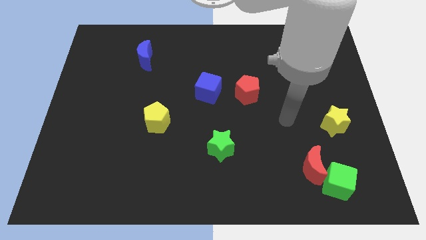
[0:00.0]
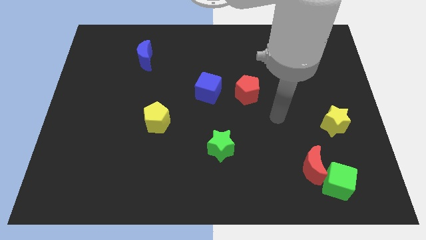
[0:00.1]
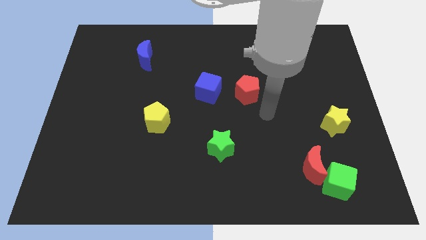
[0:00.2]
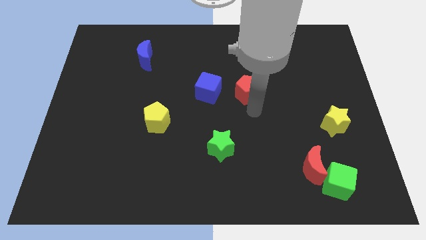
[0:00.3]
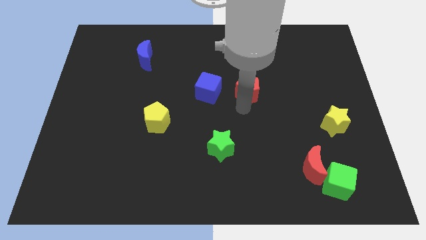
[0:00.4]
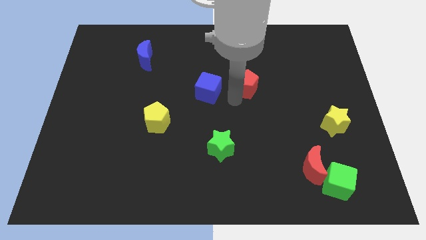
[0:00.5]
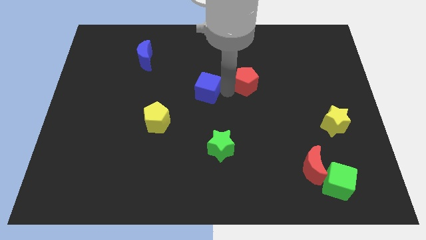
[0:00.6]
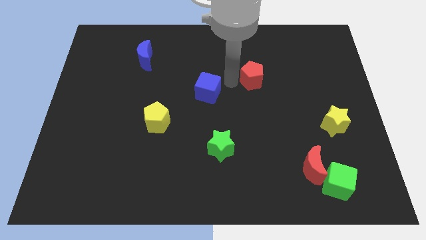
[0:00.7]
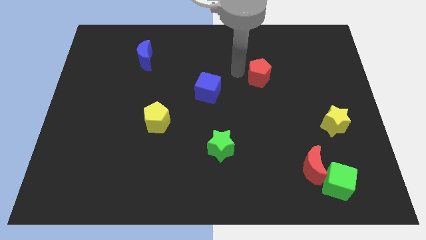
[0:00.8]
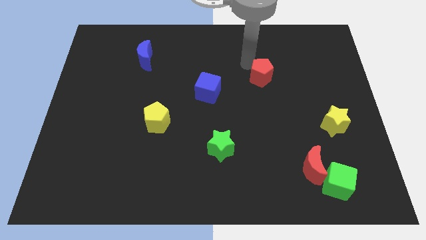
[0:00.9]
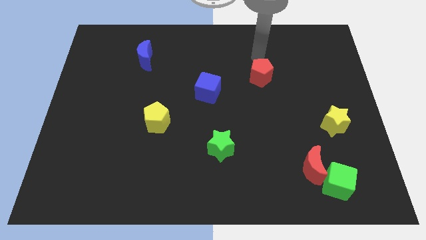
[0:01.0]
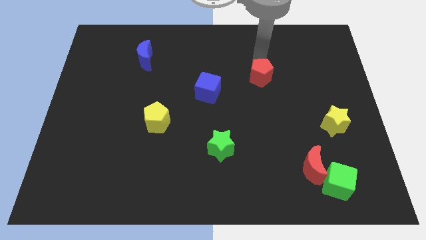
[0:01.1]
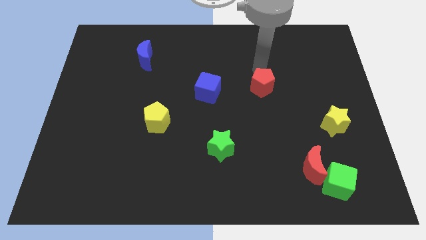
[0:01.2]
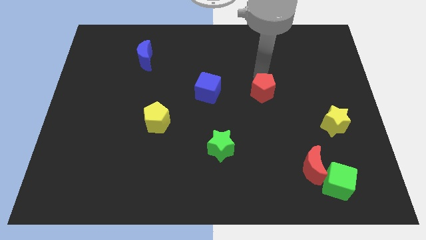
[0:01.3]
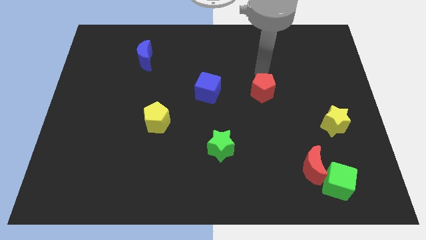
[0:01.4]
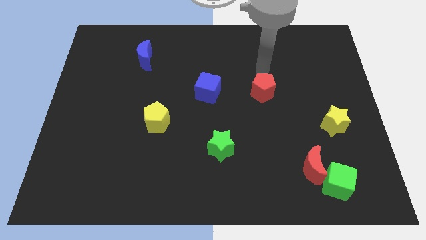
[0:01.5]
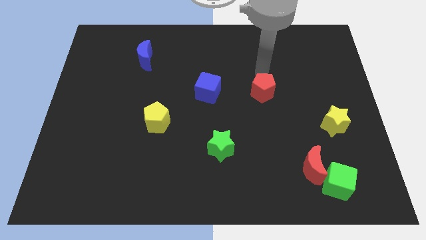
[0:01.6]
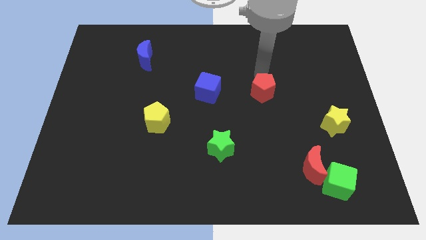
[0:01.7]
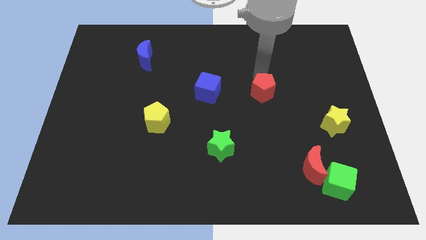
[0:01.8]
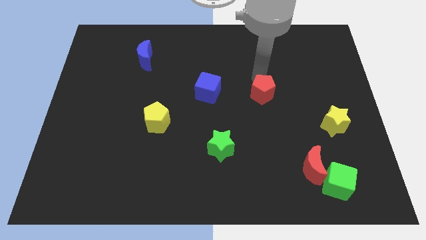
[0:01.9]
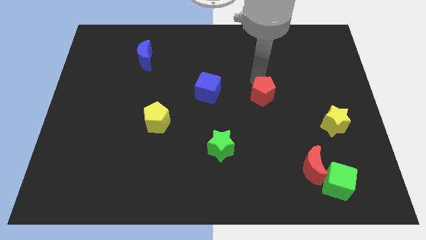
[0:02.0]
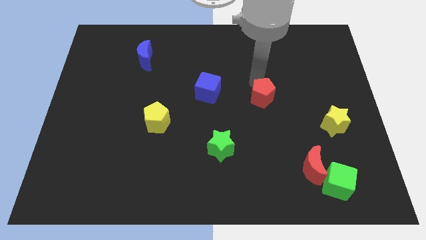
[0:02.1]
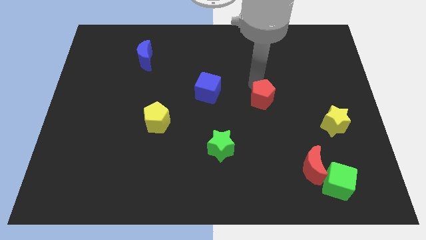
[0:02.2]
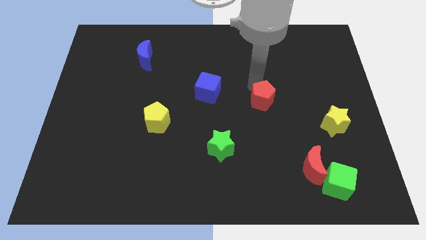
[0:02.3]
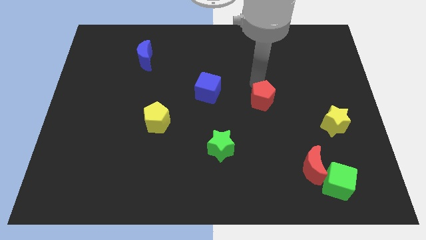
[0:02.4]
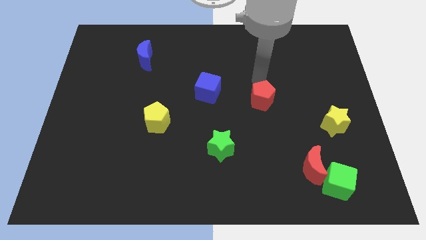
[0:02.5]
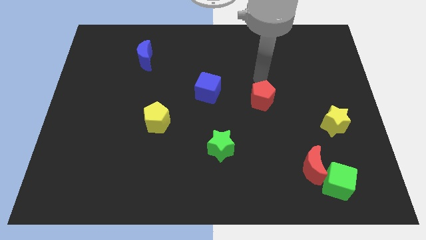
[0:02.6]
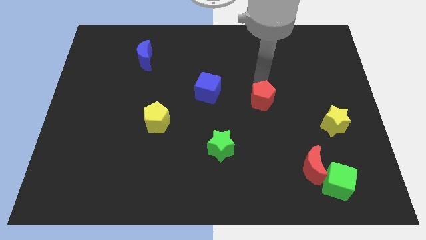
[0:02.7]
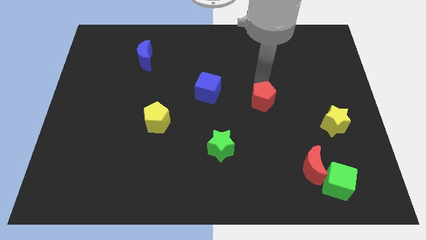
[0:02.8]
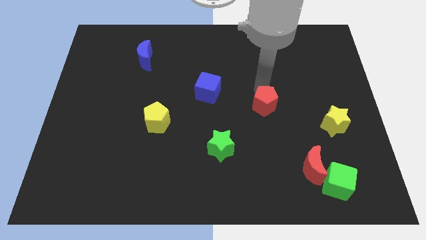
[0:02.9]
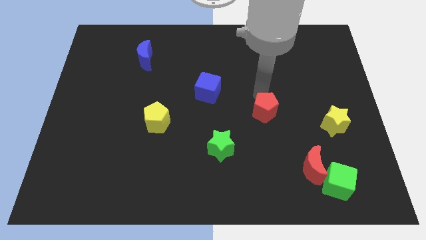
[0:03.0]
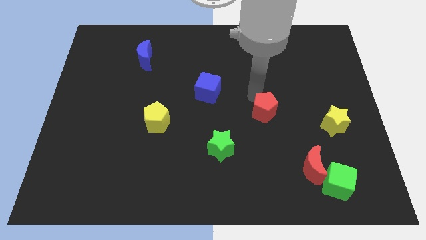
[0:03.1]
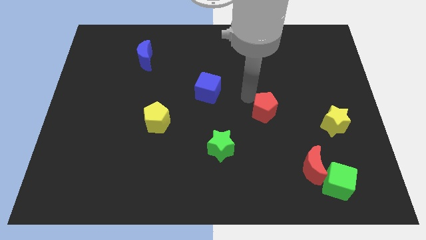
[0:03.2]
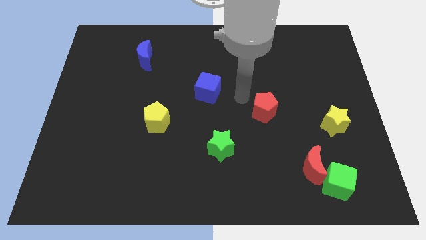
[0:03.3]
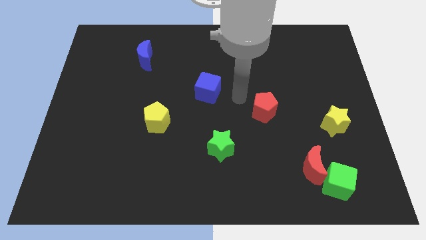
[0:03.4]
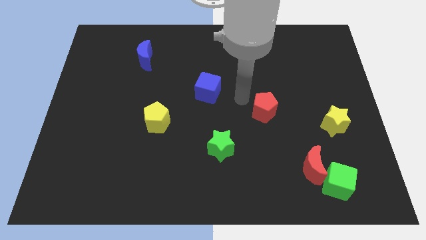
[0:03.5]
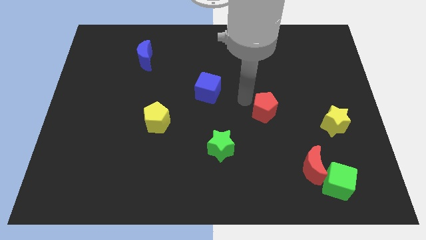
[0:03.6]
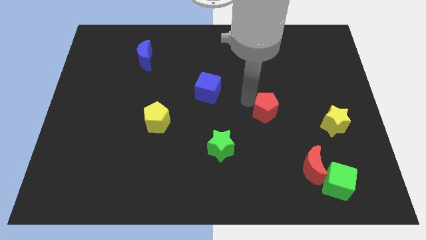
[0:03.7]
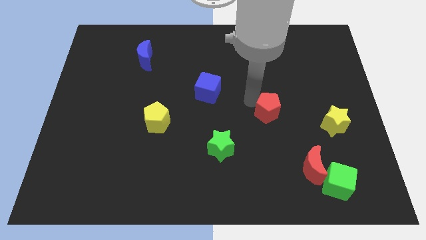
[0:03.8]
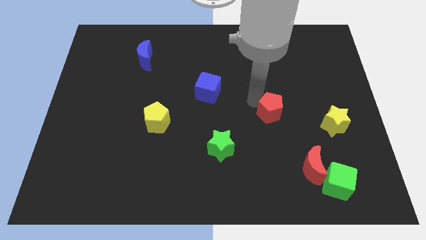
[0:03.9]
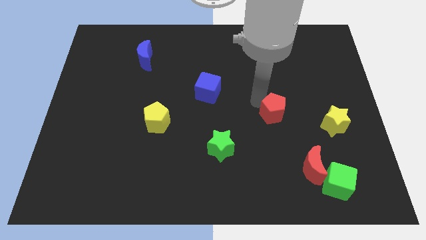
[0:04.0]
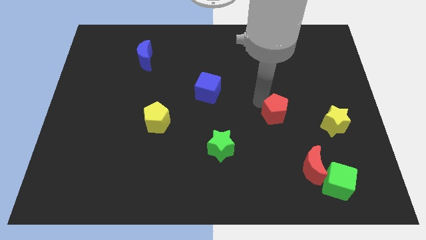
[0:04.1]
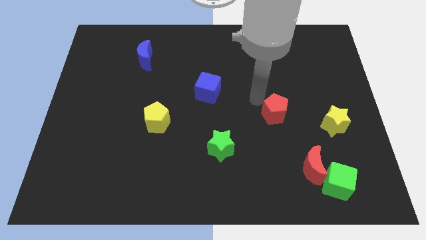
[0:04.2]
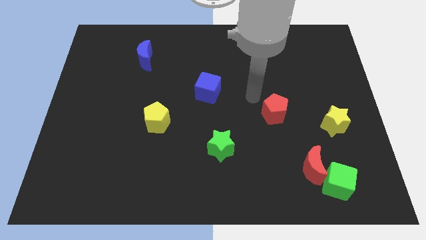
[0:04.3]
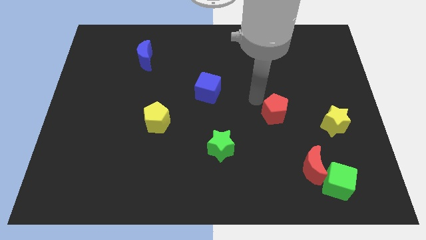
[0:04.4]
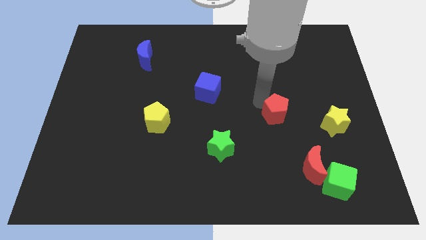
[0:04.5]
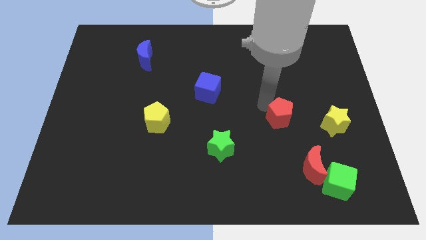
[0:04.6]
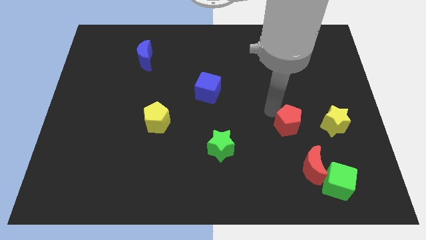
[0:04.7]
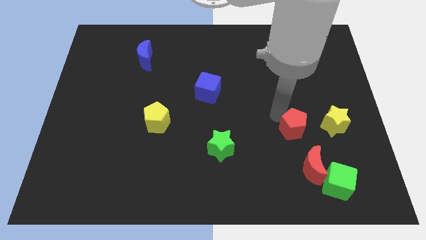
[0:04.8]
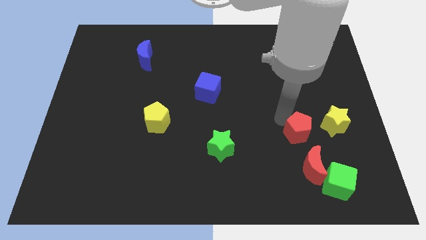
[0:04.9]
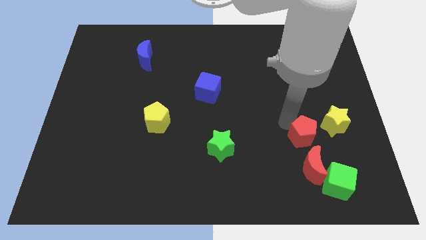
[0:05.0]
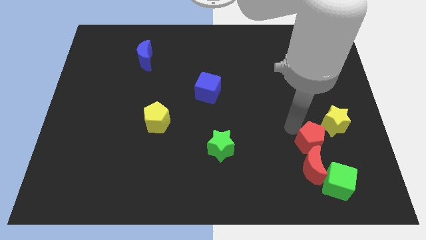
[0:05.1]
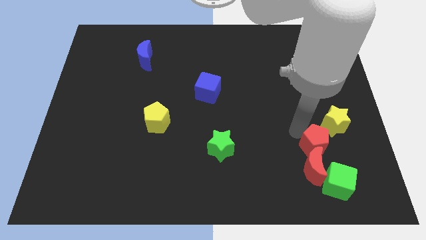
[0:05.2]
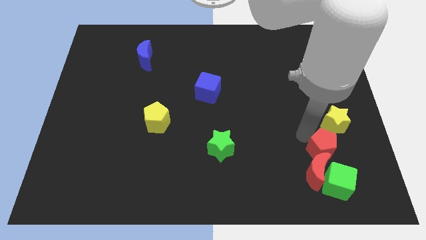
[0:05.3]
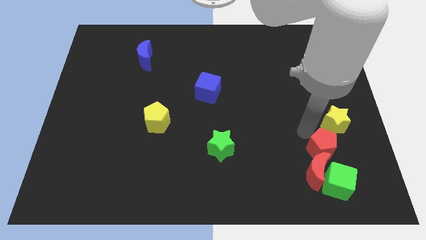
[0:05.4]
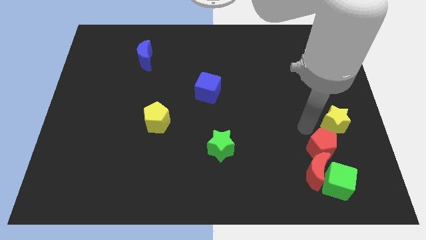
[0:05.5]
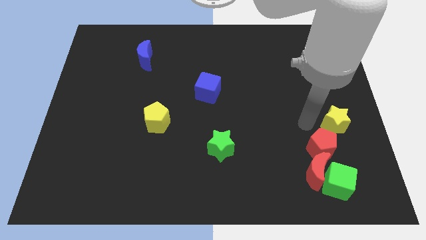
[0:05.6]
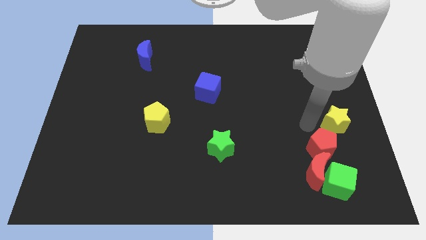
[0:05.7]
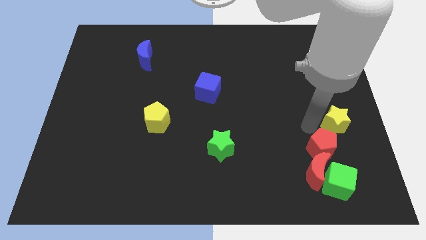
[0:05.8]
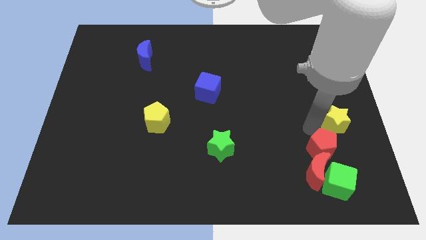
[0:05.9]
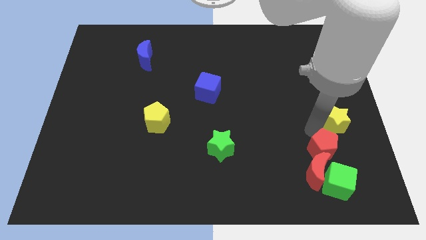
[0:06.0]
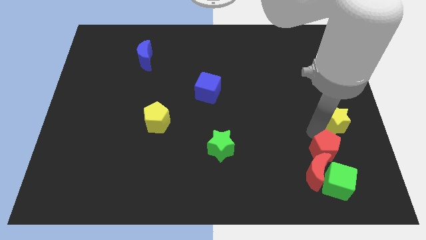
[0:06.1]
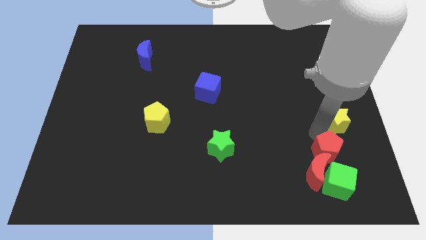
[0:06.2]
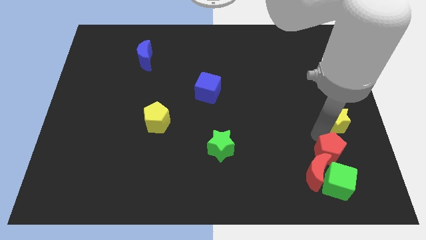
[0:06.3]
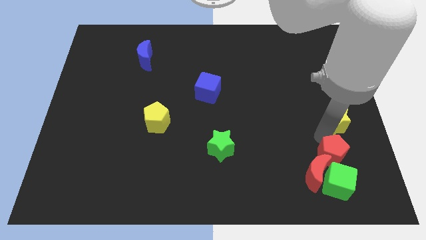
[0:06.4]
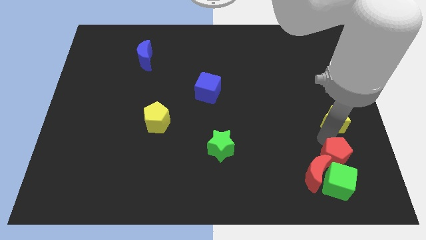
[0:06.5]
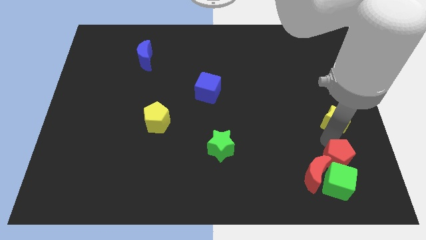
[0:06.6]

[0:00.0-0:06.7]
put the red pentagon close to the green cube

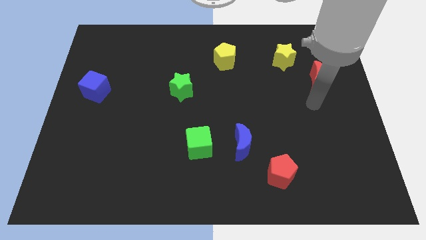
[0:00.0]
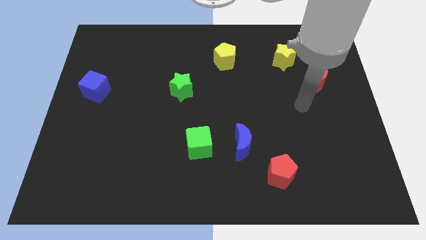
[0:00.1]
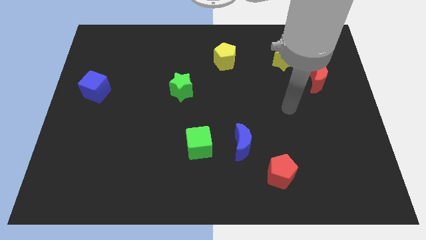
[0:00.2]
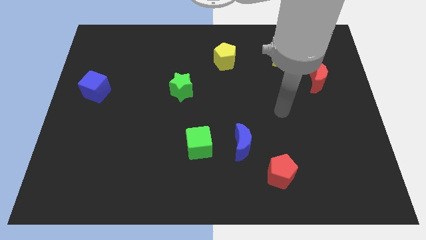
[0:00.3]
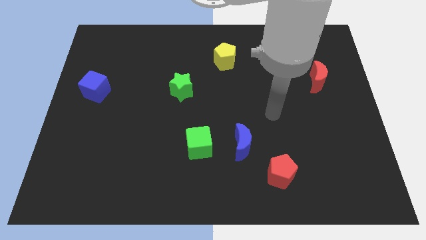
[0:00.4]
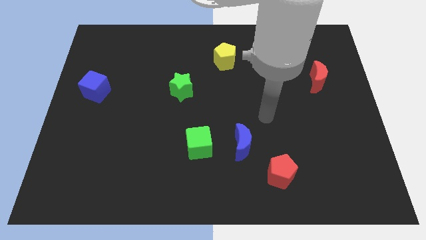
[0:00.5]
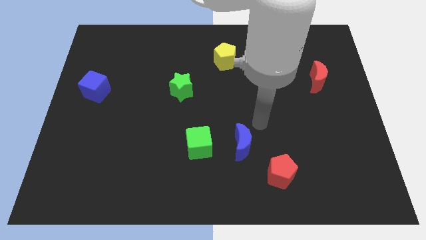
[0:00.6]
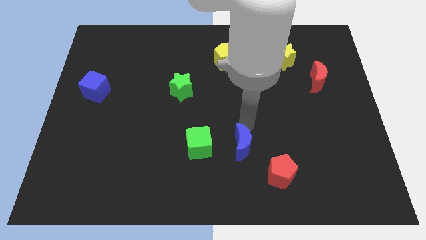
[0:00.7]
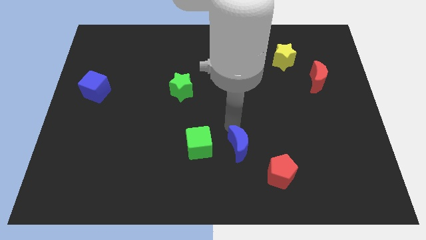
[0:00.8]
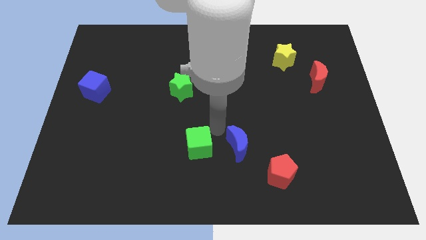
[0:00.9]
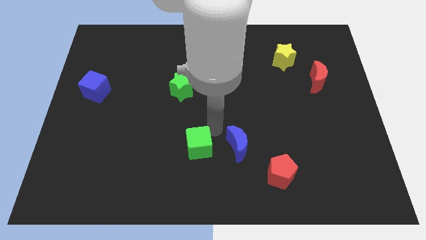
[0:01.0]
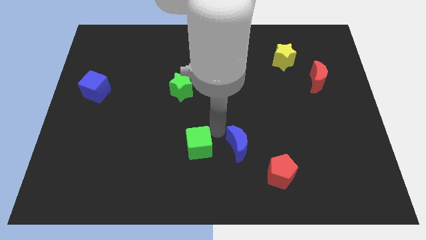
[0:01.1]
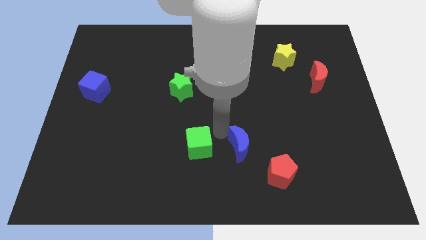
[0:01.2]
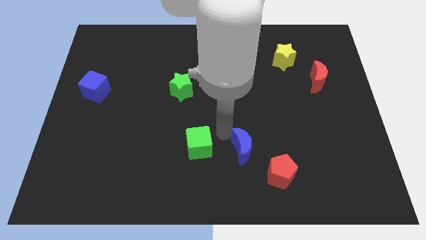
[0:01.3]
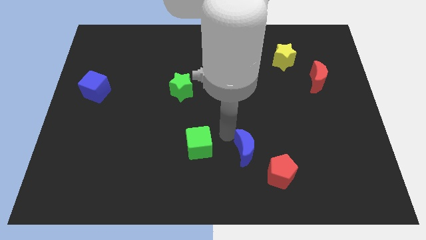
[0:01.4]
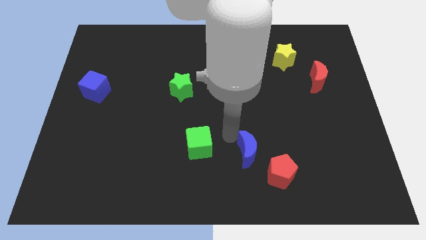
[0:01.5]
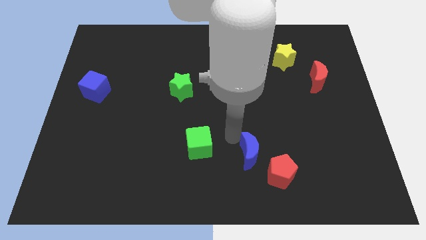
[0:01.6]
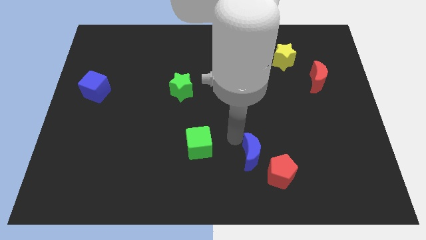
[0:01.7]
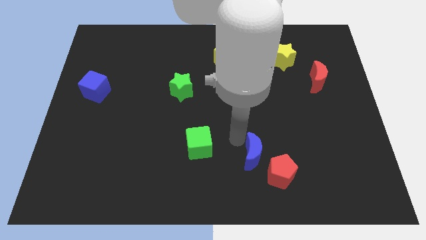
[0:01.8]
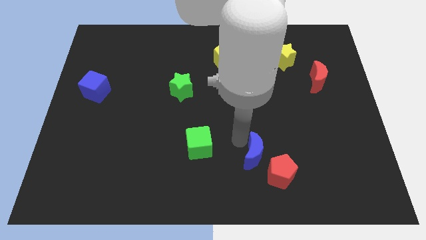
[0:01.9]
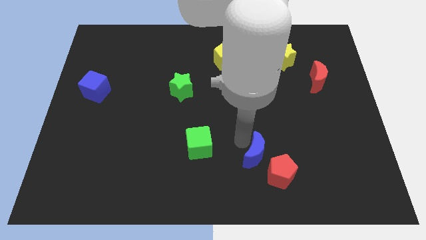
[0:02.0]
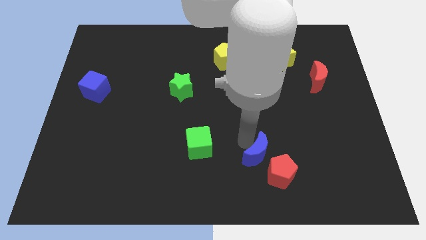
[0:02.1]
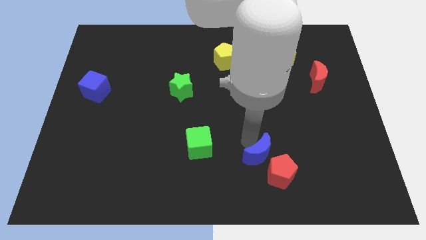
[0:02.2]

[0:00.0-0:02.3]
slide the blue moon to the red pentagon
